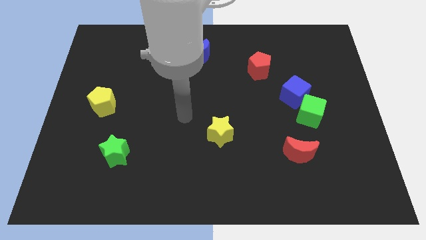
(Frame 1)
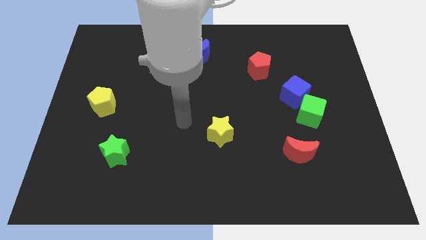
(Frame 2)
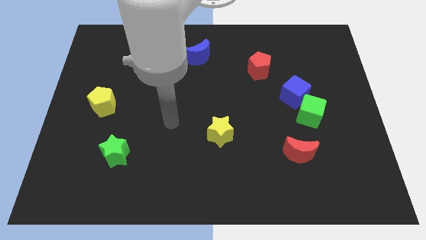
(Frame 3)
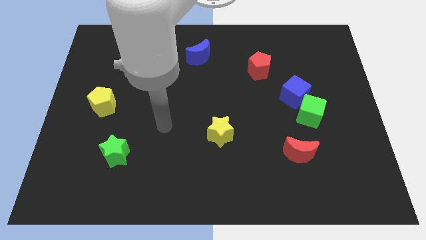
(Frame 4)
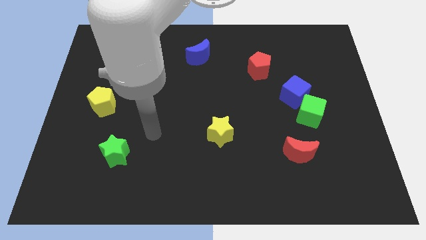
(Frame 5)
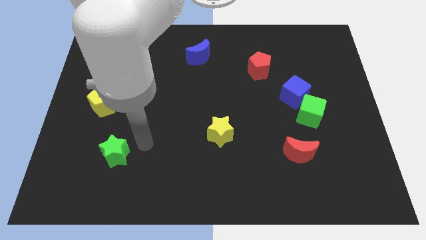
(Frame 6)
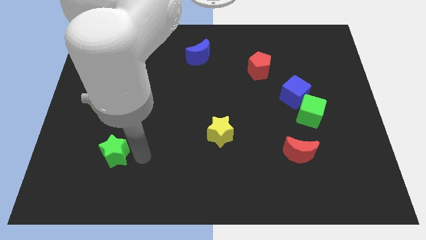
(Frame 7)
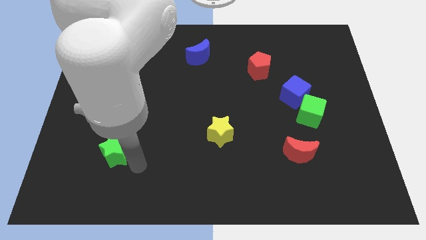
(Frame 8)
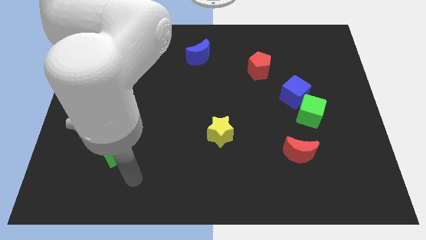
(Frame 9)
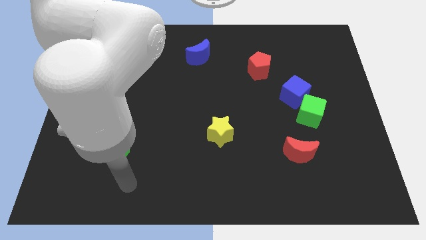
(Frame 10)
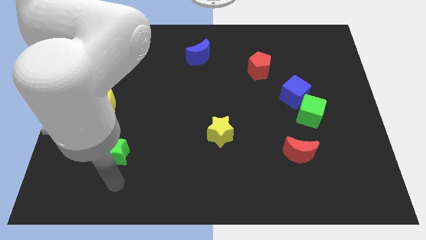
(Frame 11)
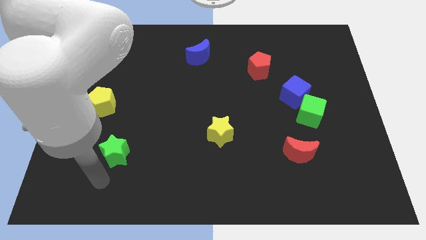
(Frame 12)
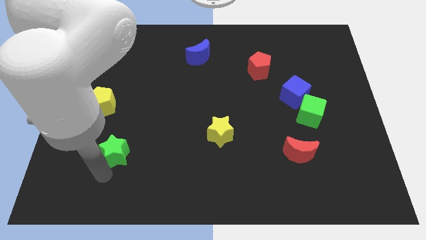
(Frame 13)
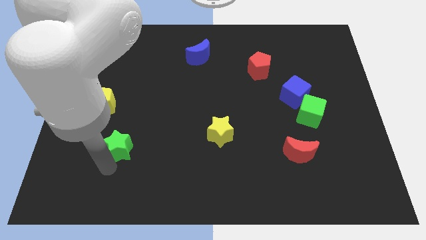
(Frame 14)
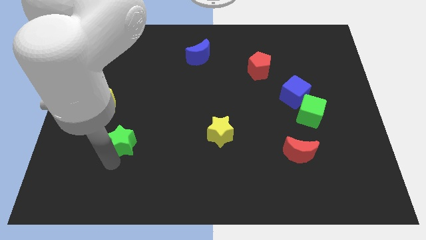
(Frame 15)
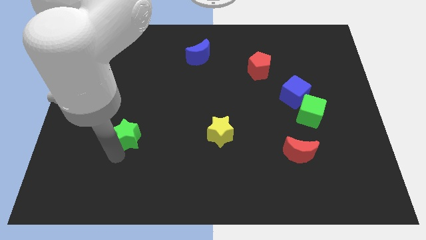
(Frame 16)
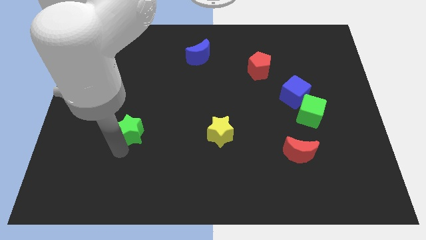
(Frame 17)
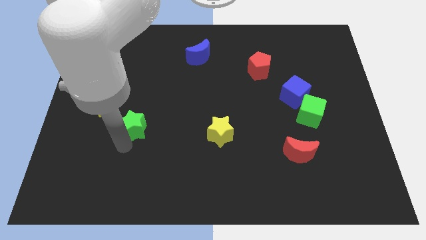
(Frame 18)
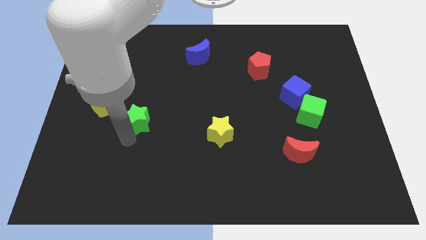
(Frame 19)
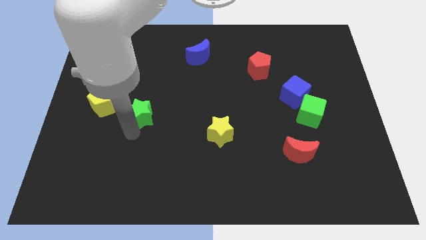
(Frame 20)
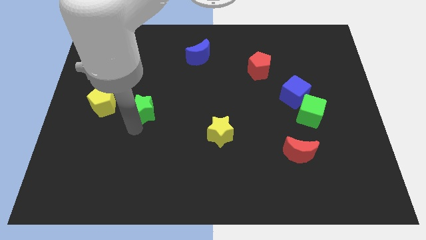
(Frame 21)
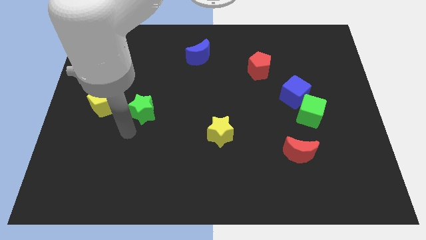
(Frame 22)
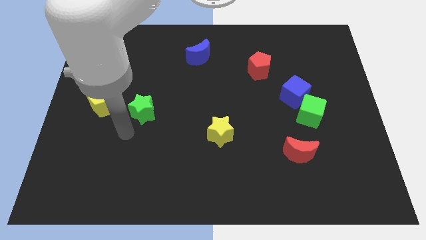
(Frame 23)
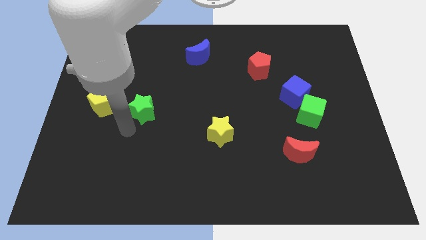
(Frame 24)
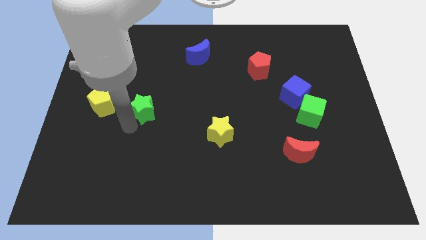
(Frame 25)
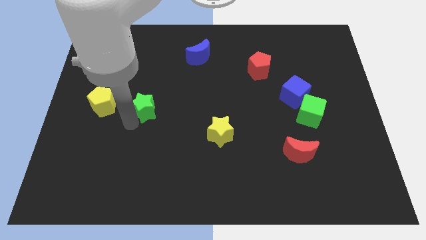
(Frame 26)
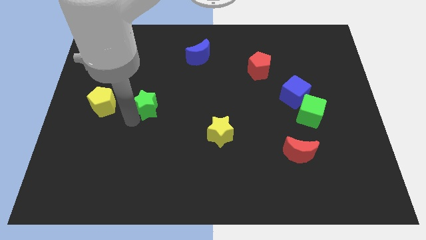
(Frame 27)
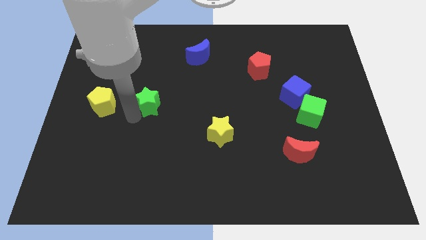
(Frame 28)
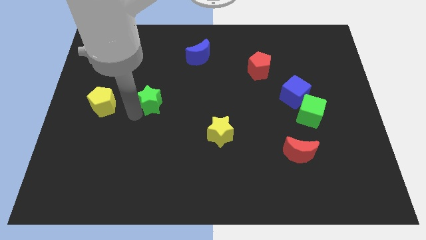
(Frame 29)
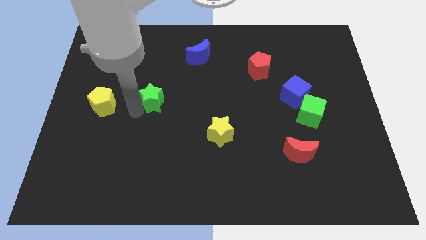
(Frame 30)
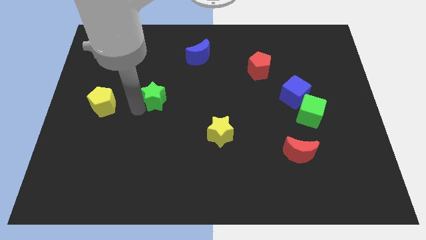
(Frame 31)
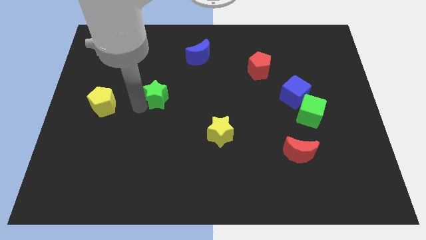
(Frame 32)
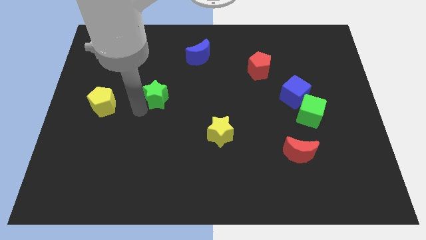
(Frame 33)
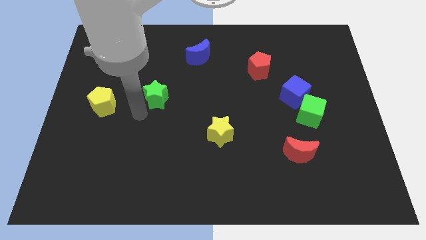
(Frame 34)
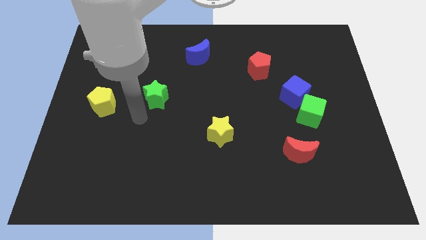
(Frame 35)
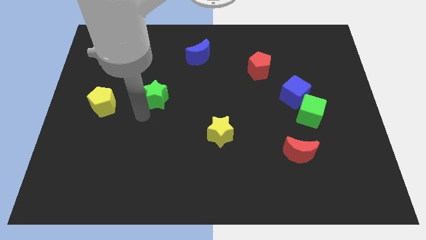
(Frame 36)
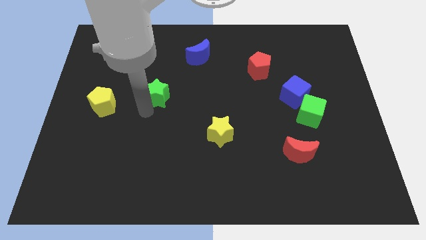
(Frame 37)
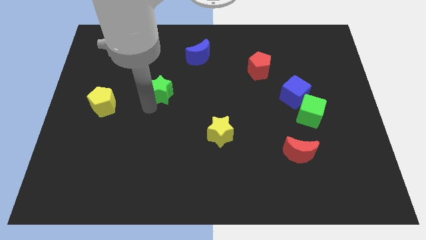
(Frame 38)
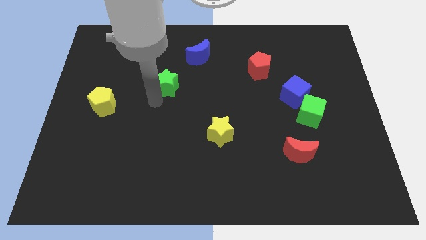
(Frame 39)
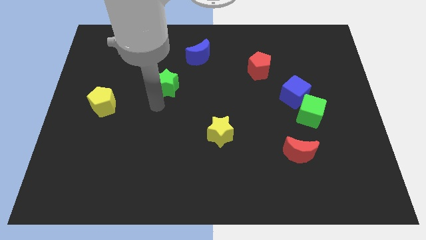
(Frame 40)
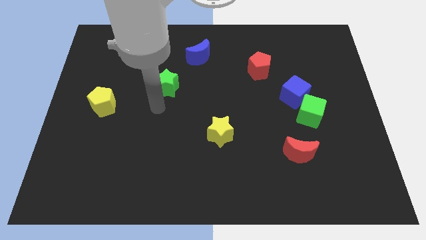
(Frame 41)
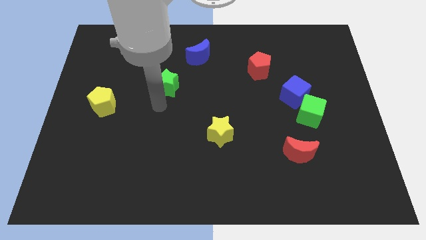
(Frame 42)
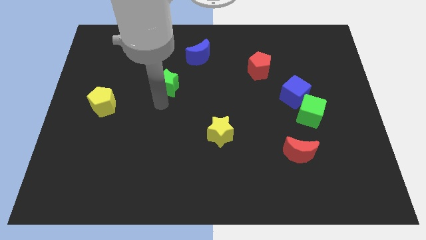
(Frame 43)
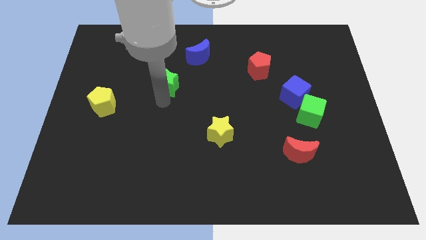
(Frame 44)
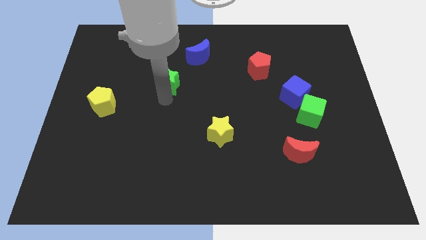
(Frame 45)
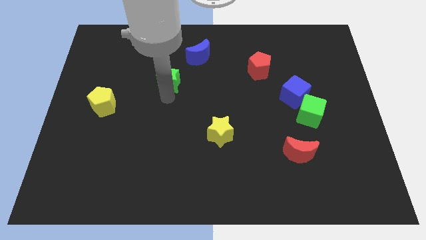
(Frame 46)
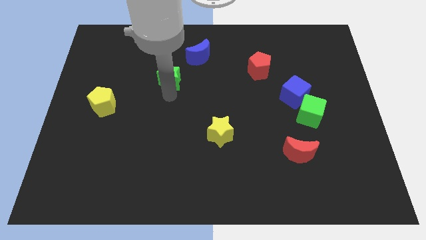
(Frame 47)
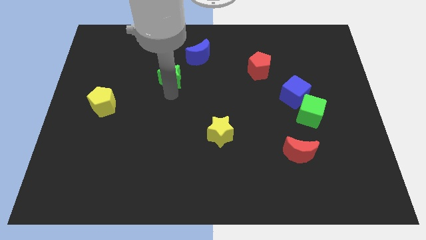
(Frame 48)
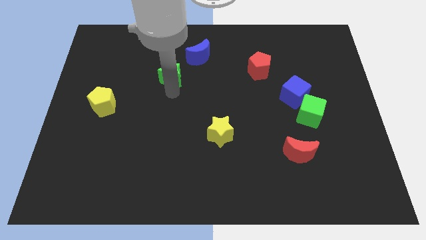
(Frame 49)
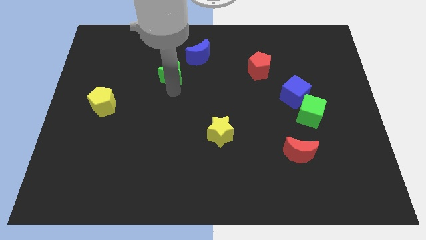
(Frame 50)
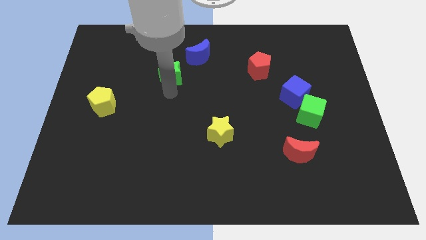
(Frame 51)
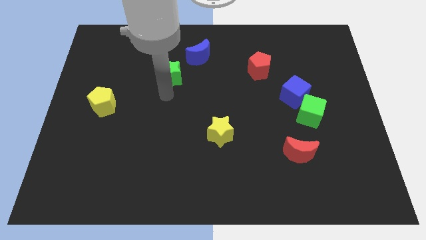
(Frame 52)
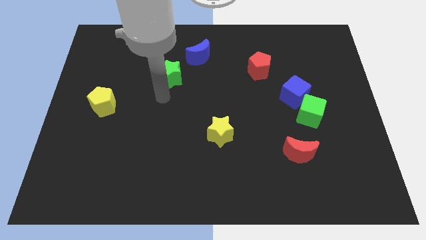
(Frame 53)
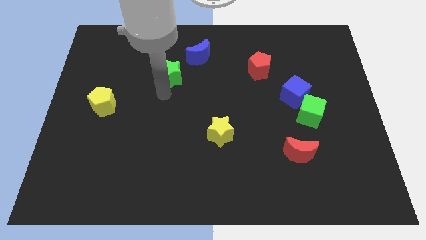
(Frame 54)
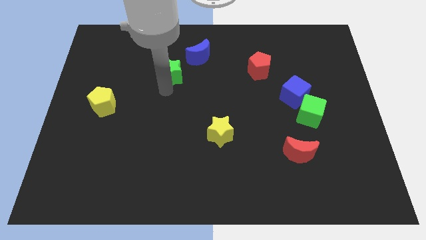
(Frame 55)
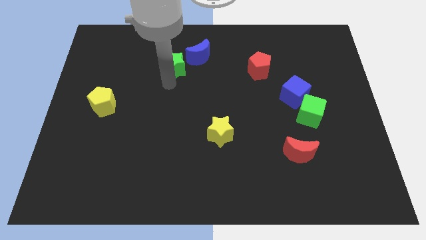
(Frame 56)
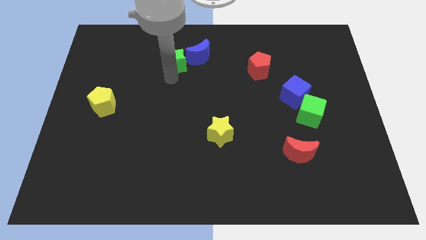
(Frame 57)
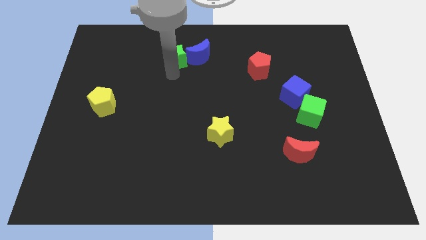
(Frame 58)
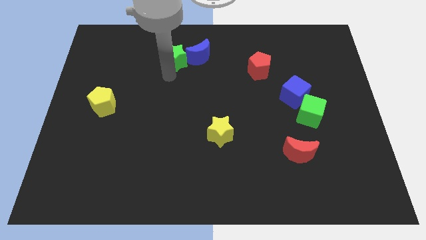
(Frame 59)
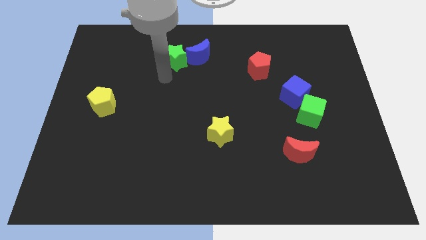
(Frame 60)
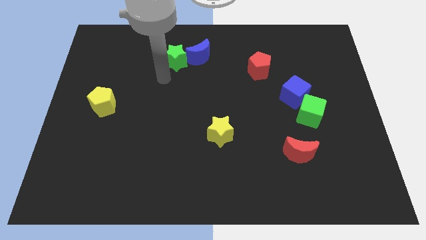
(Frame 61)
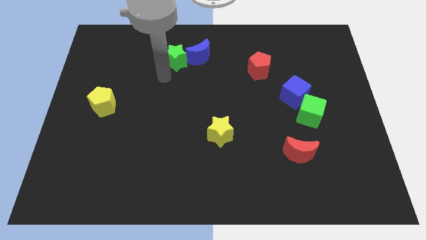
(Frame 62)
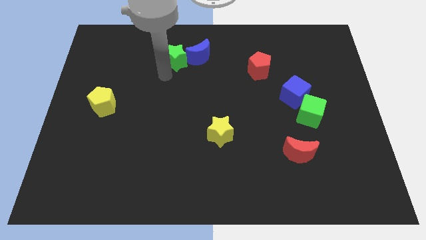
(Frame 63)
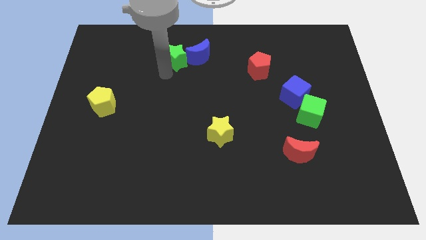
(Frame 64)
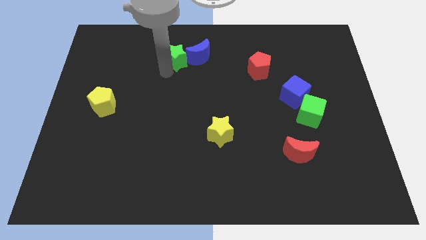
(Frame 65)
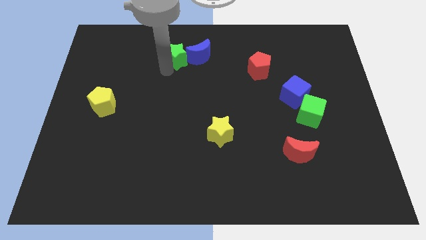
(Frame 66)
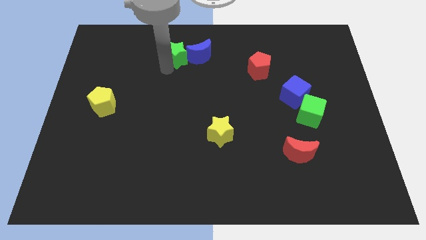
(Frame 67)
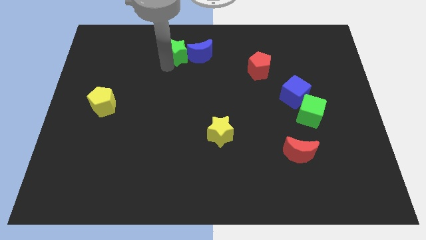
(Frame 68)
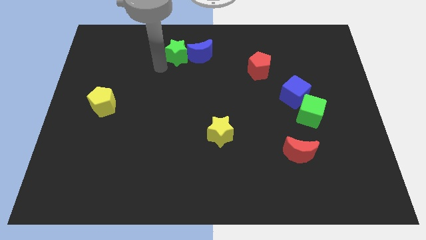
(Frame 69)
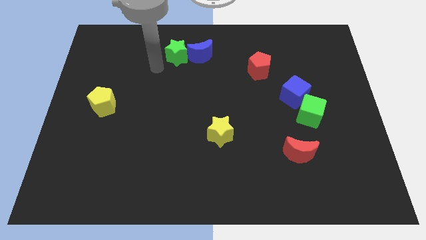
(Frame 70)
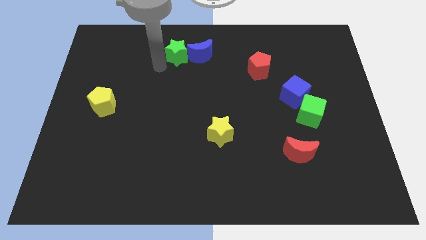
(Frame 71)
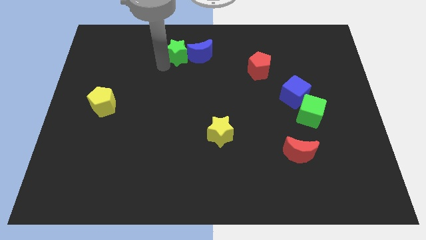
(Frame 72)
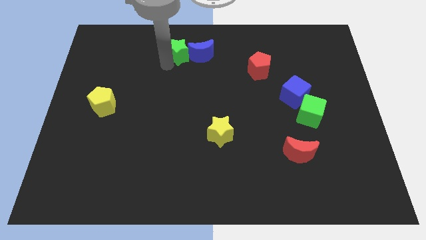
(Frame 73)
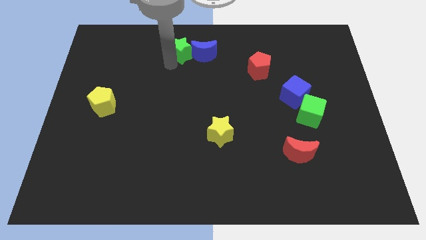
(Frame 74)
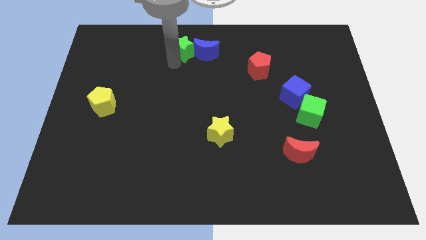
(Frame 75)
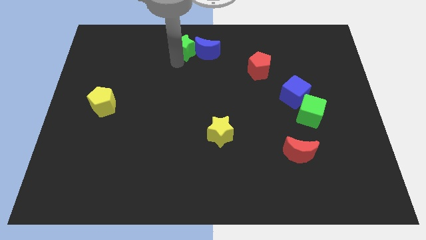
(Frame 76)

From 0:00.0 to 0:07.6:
move the green star to the top side
